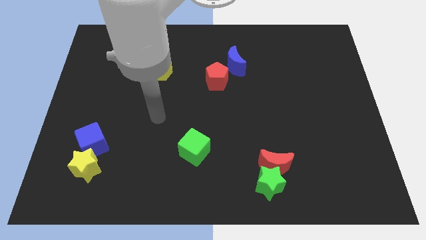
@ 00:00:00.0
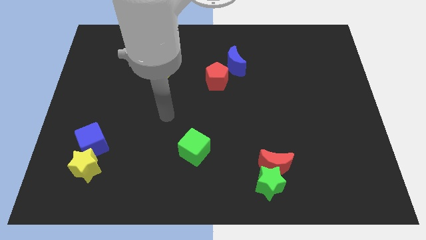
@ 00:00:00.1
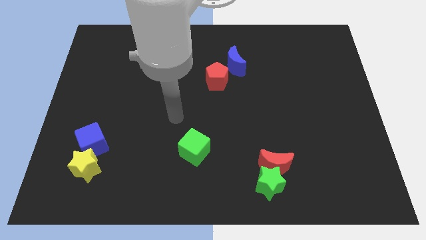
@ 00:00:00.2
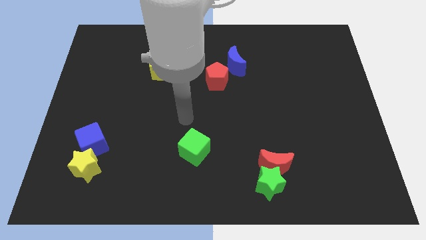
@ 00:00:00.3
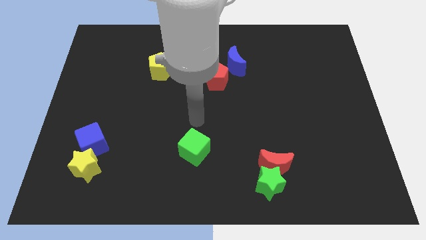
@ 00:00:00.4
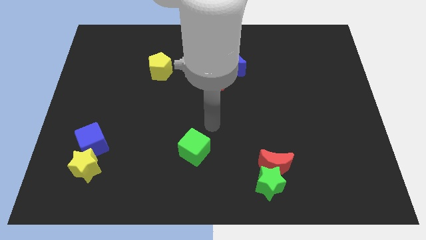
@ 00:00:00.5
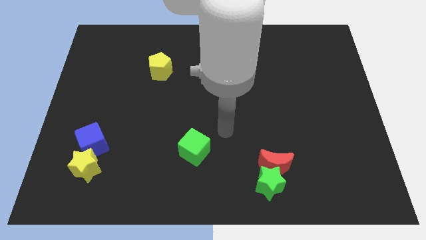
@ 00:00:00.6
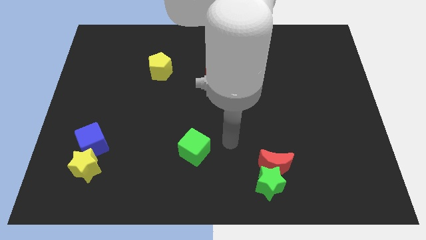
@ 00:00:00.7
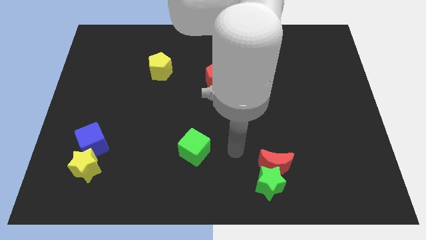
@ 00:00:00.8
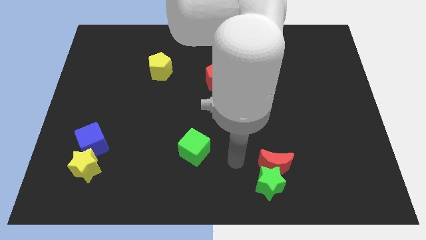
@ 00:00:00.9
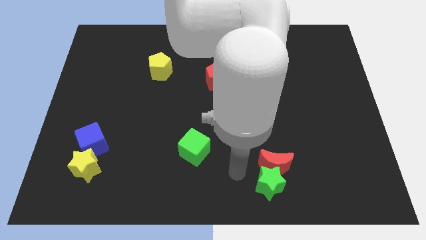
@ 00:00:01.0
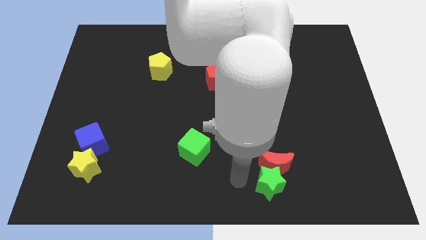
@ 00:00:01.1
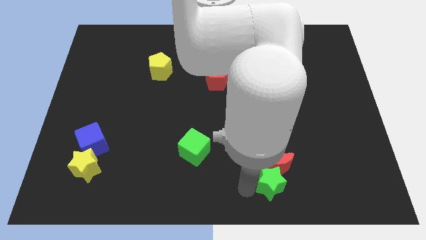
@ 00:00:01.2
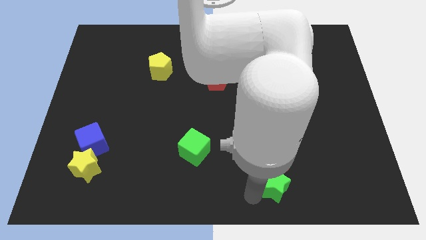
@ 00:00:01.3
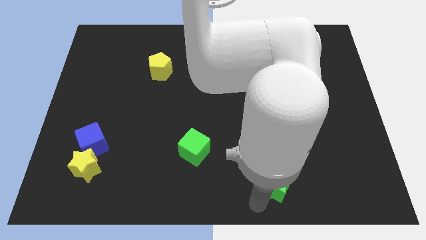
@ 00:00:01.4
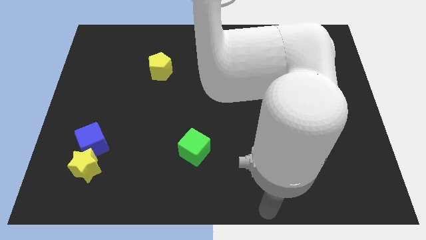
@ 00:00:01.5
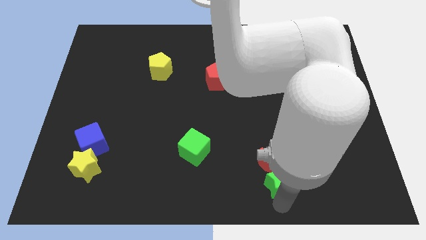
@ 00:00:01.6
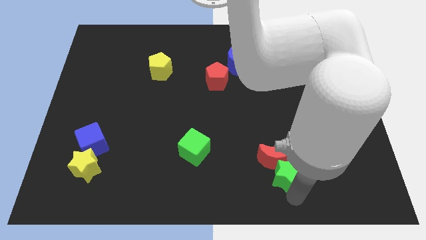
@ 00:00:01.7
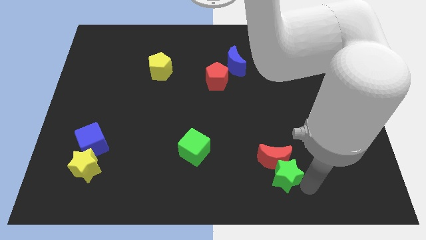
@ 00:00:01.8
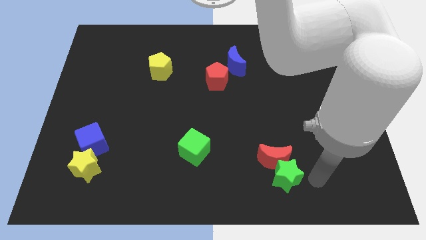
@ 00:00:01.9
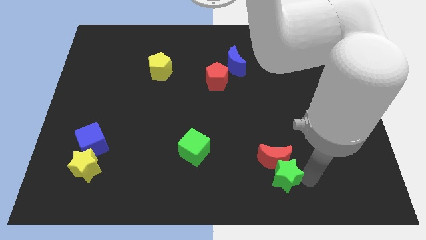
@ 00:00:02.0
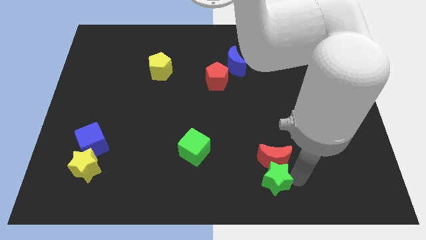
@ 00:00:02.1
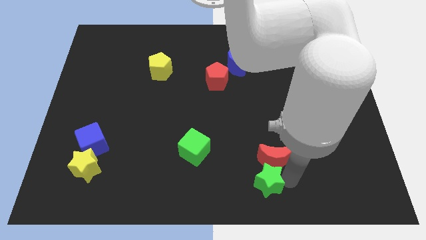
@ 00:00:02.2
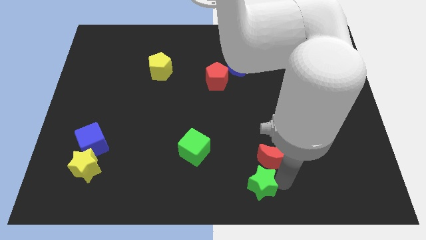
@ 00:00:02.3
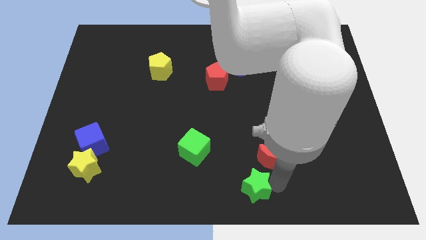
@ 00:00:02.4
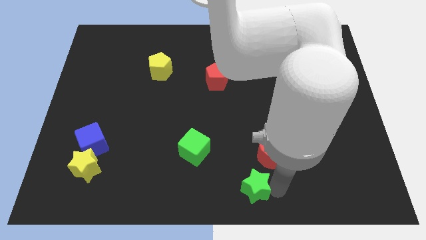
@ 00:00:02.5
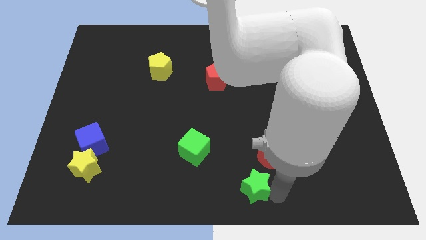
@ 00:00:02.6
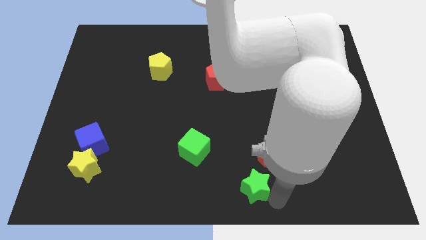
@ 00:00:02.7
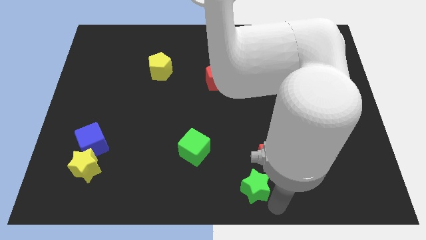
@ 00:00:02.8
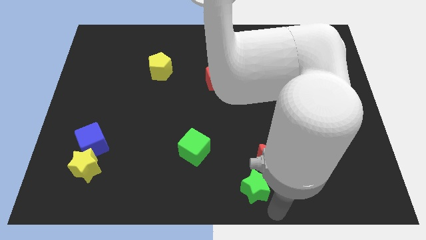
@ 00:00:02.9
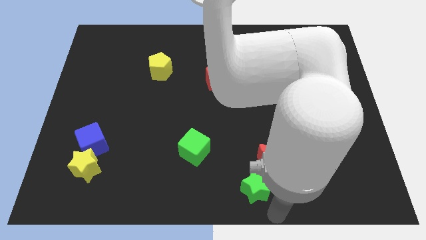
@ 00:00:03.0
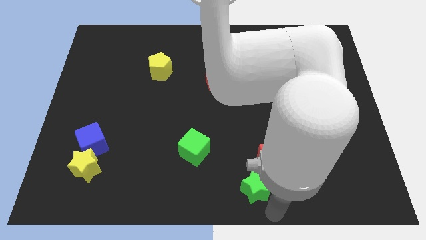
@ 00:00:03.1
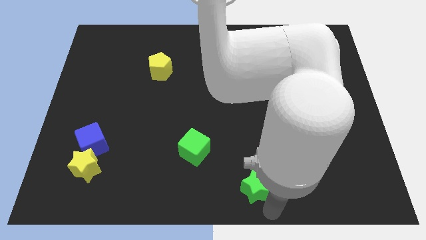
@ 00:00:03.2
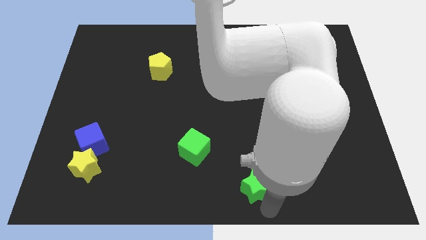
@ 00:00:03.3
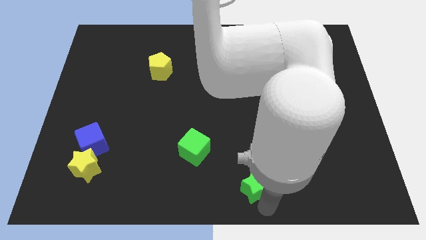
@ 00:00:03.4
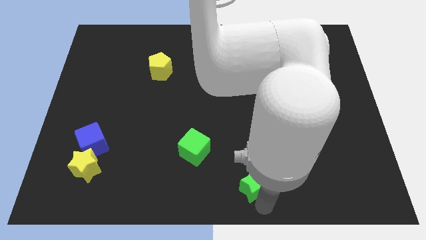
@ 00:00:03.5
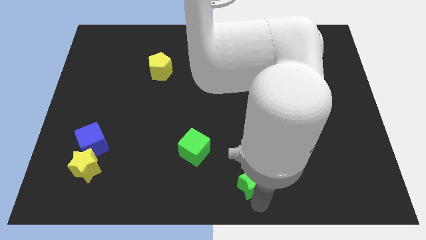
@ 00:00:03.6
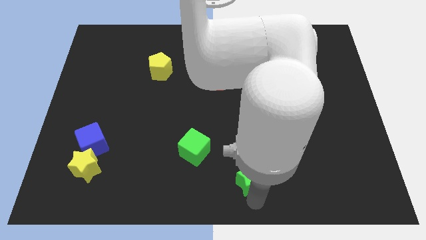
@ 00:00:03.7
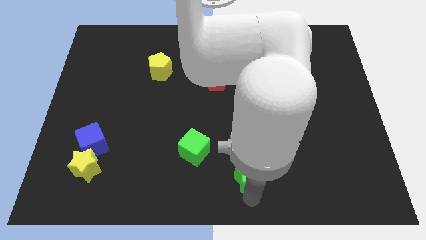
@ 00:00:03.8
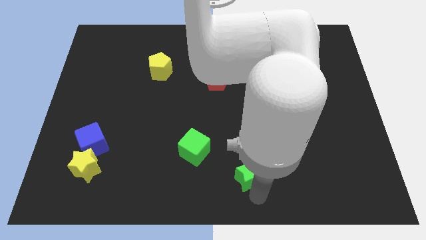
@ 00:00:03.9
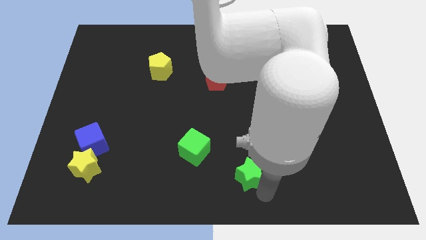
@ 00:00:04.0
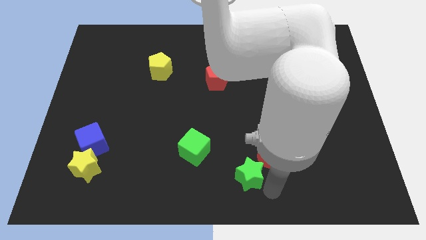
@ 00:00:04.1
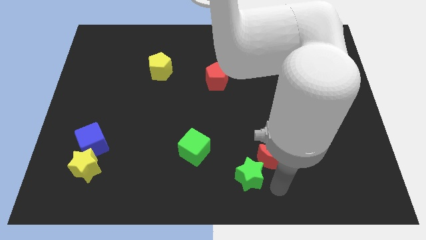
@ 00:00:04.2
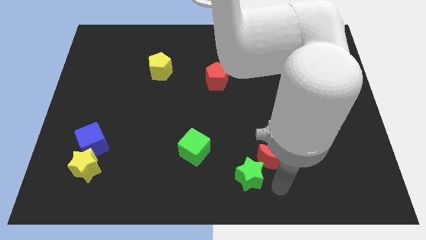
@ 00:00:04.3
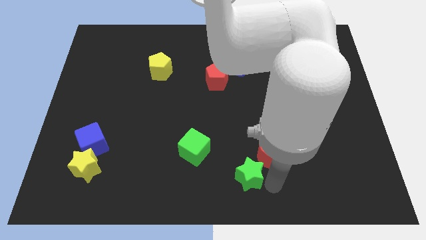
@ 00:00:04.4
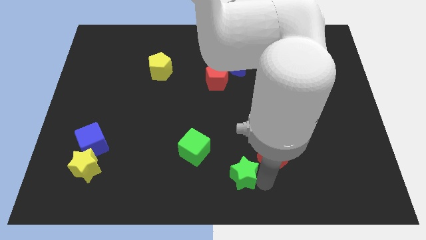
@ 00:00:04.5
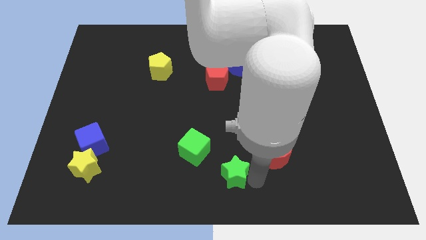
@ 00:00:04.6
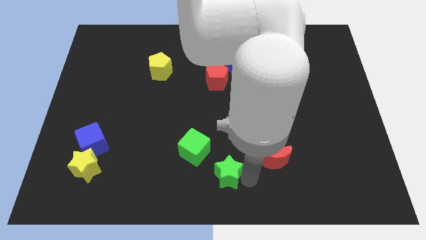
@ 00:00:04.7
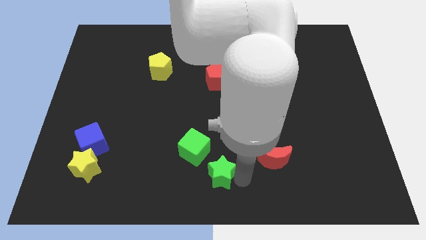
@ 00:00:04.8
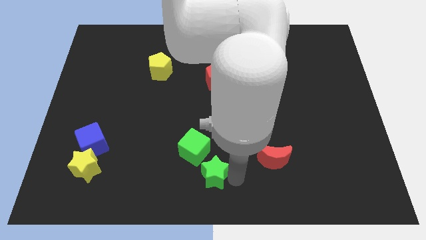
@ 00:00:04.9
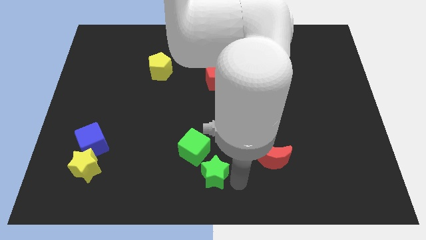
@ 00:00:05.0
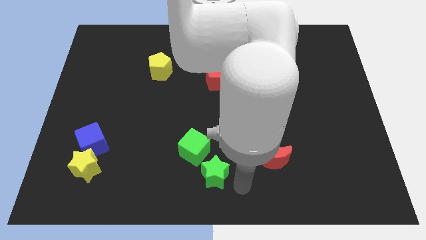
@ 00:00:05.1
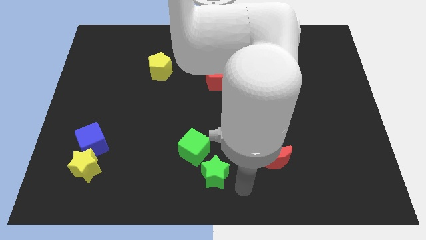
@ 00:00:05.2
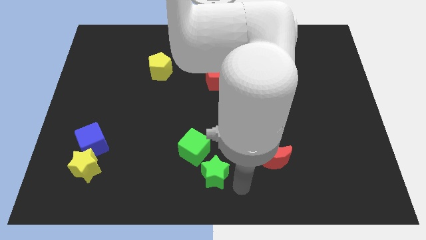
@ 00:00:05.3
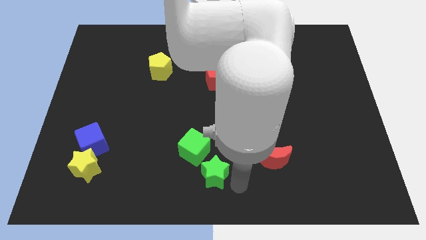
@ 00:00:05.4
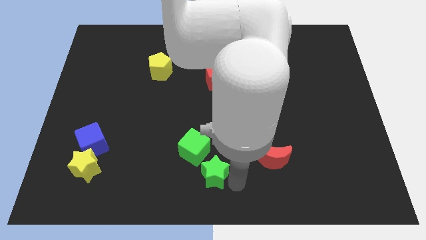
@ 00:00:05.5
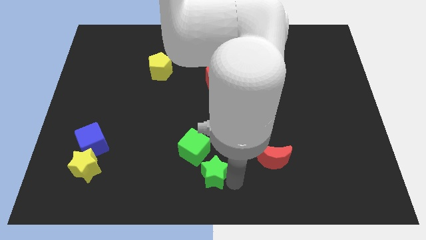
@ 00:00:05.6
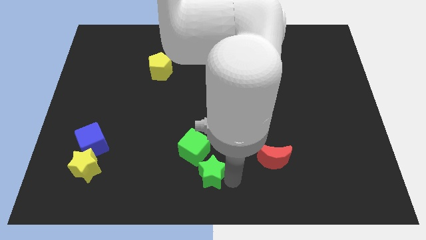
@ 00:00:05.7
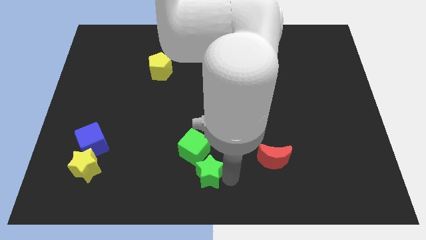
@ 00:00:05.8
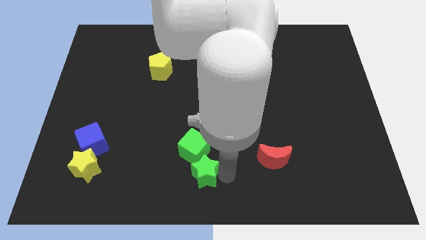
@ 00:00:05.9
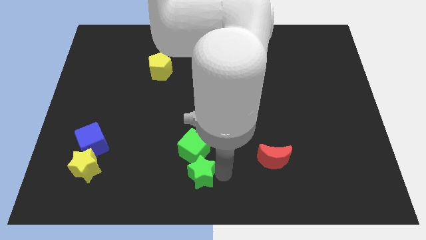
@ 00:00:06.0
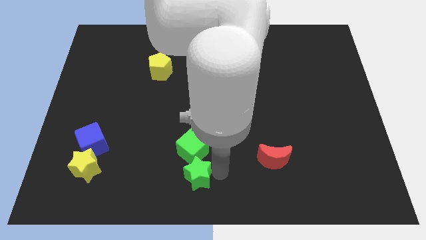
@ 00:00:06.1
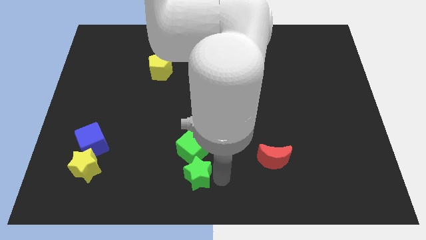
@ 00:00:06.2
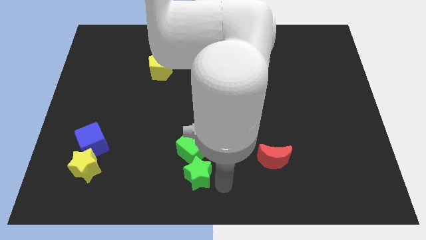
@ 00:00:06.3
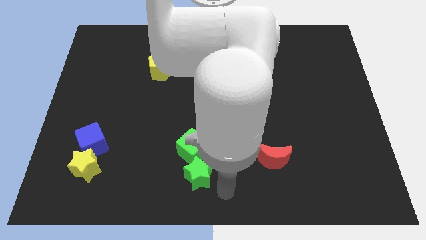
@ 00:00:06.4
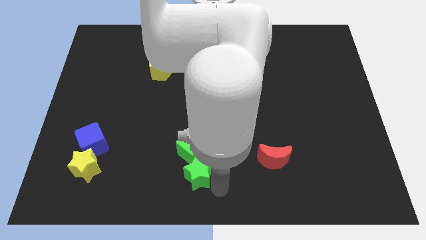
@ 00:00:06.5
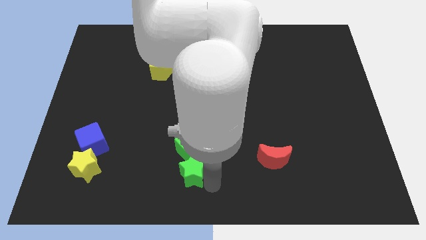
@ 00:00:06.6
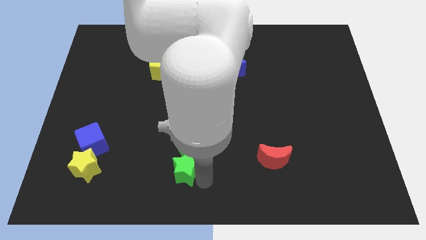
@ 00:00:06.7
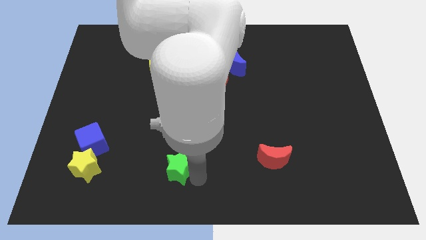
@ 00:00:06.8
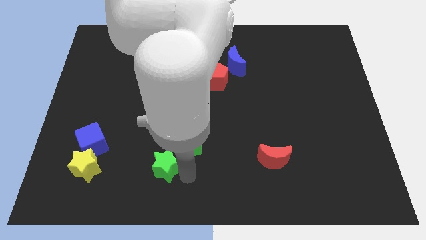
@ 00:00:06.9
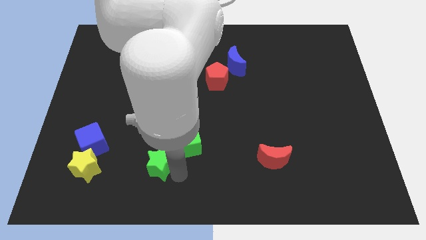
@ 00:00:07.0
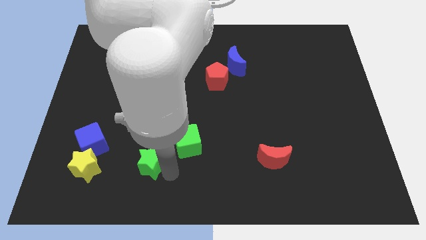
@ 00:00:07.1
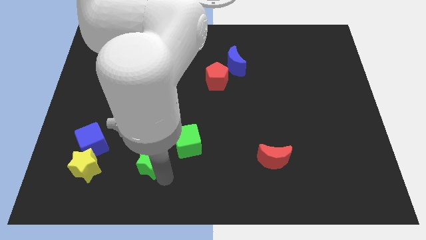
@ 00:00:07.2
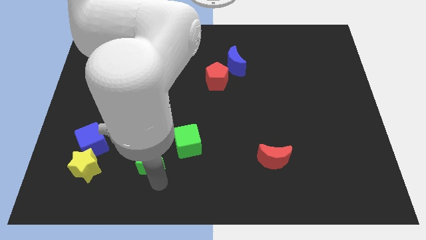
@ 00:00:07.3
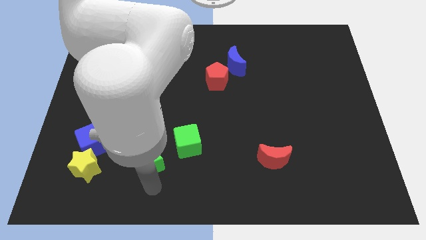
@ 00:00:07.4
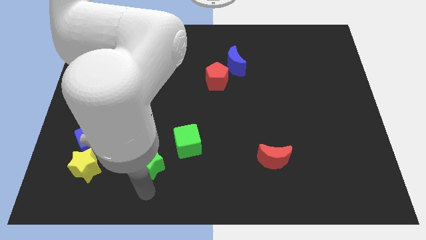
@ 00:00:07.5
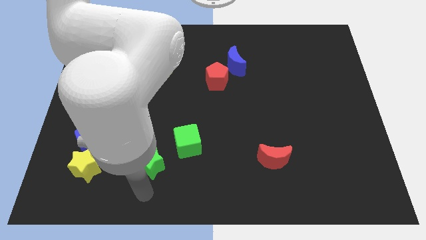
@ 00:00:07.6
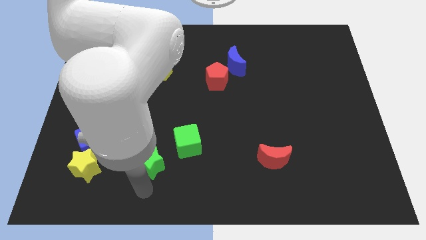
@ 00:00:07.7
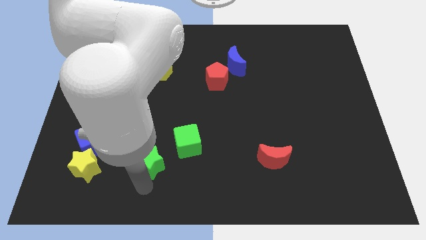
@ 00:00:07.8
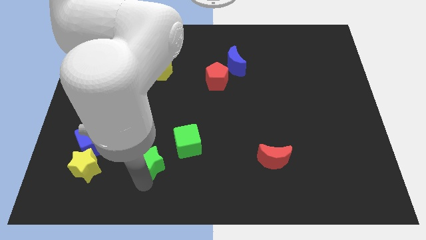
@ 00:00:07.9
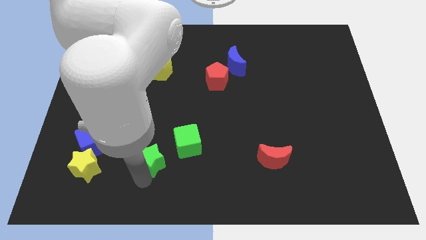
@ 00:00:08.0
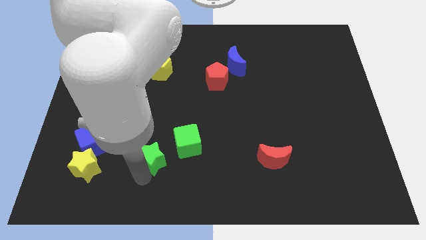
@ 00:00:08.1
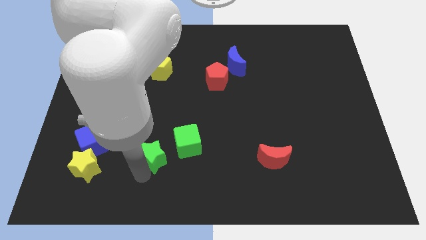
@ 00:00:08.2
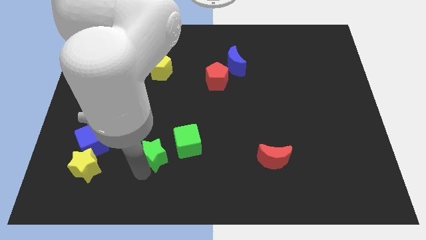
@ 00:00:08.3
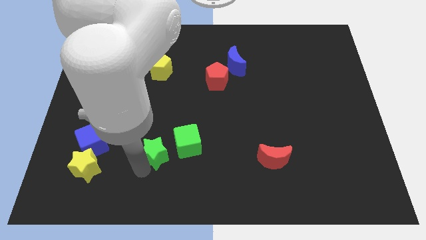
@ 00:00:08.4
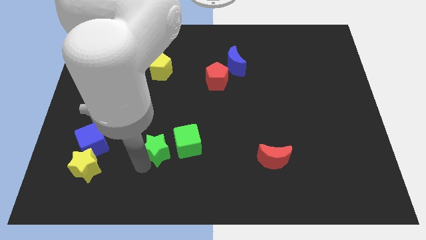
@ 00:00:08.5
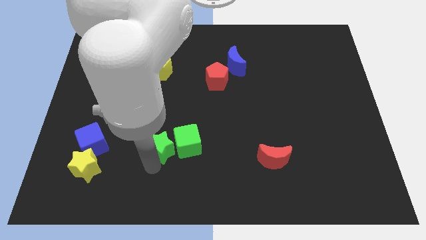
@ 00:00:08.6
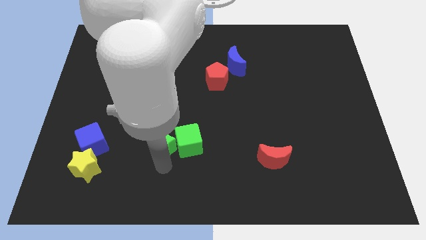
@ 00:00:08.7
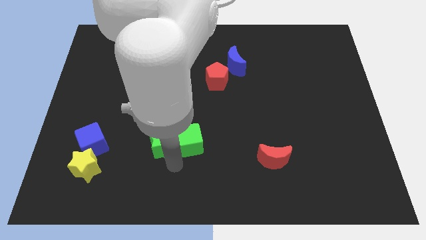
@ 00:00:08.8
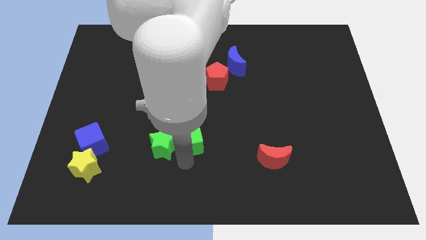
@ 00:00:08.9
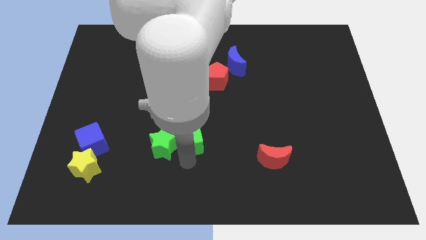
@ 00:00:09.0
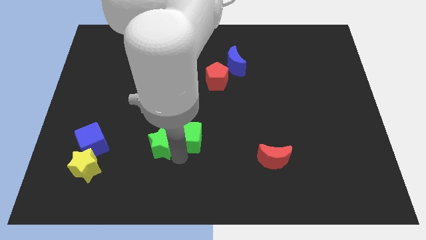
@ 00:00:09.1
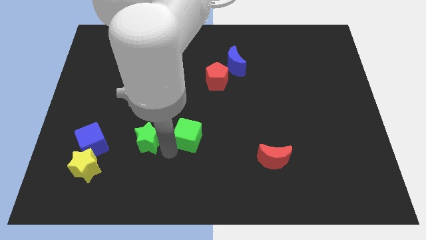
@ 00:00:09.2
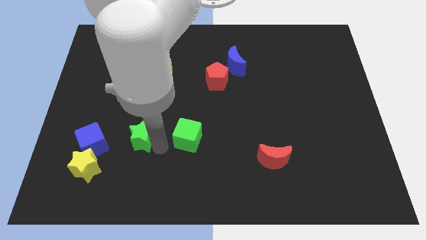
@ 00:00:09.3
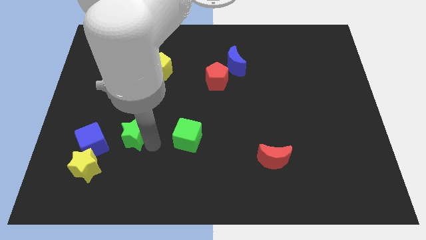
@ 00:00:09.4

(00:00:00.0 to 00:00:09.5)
push the green star diagonally up and to the right of the blue cube
